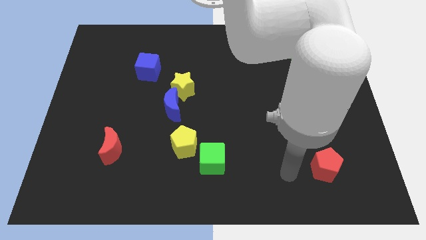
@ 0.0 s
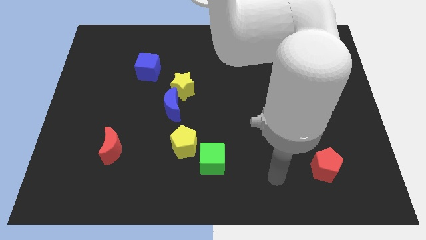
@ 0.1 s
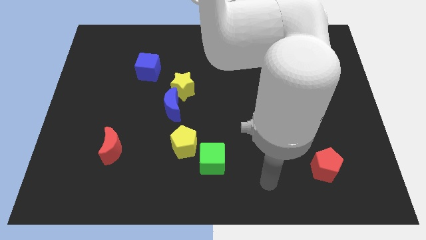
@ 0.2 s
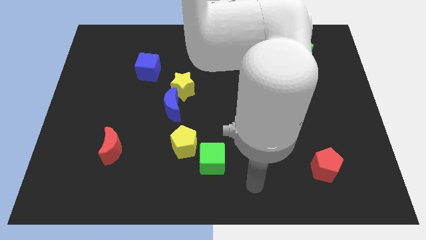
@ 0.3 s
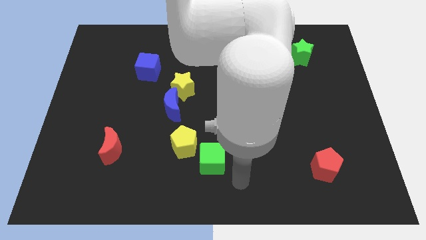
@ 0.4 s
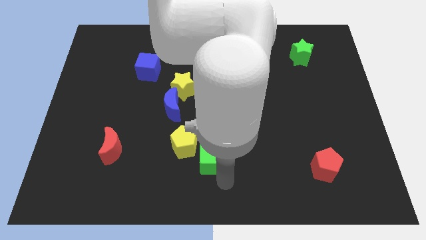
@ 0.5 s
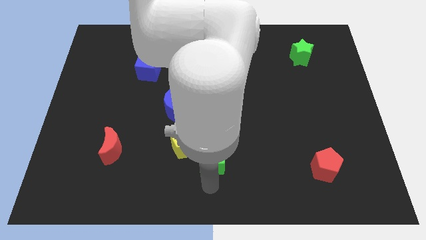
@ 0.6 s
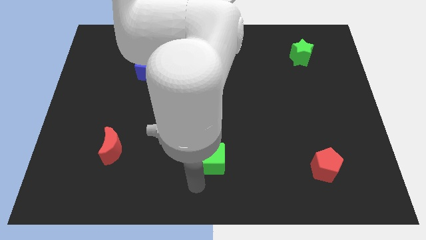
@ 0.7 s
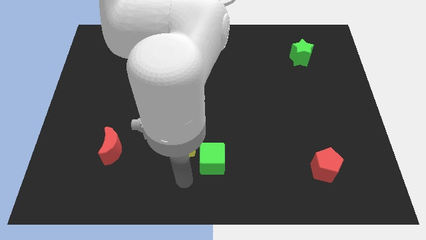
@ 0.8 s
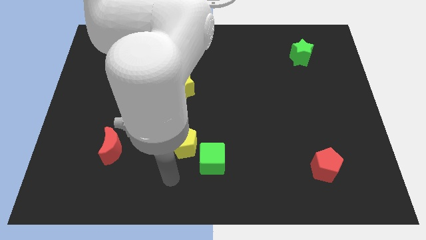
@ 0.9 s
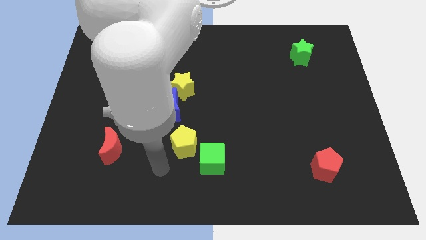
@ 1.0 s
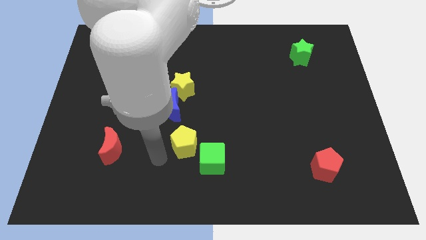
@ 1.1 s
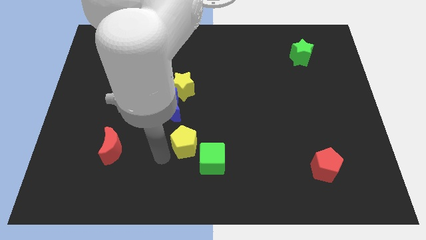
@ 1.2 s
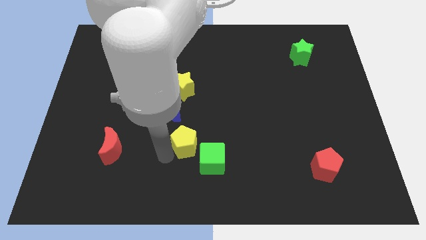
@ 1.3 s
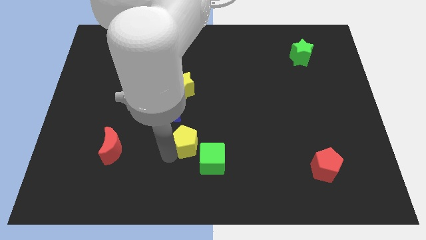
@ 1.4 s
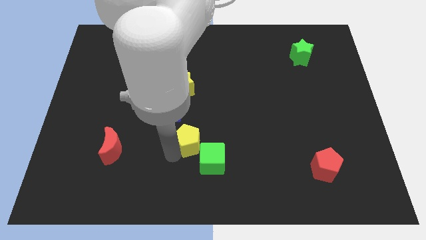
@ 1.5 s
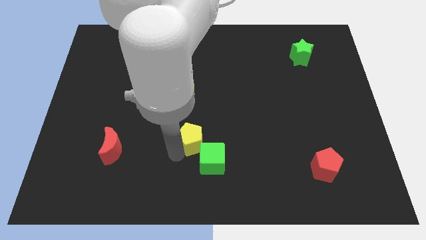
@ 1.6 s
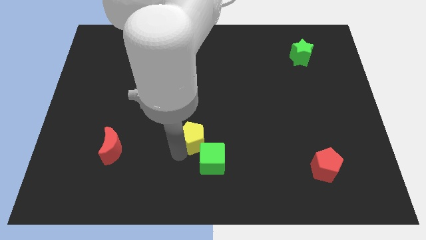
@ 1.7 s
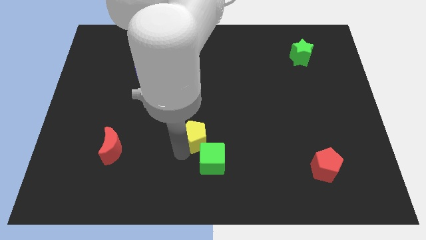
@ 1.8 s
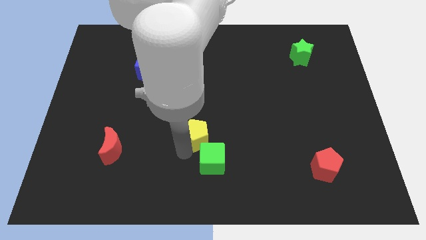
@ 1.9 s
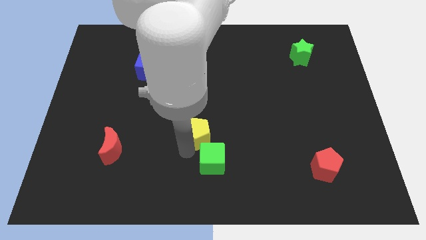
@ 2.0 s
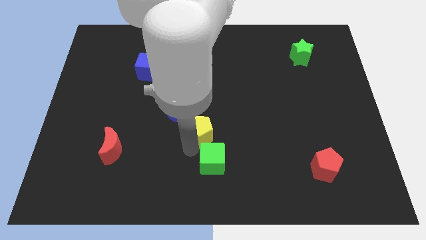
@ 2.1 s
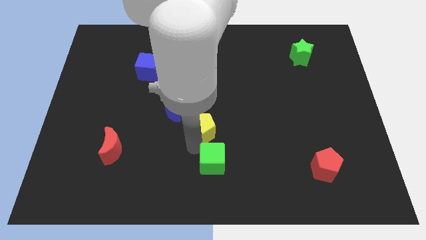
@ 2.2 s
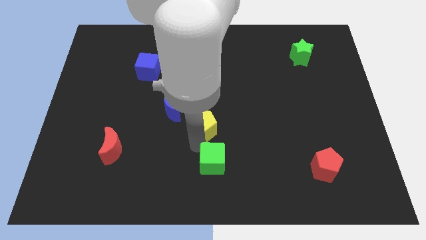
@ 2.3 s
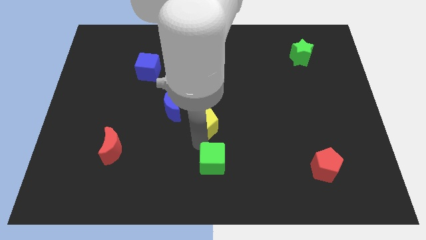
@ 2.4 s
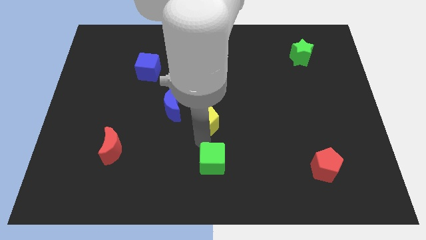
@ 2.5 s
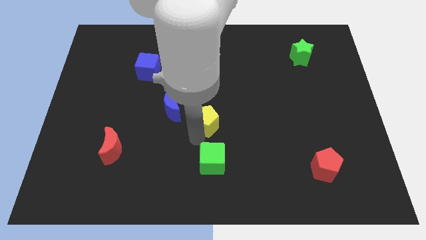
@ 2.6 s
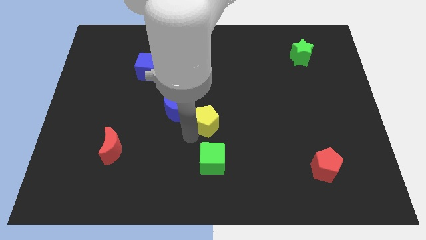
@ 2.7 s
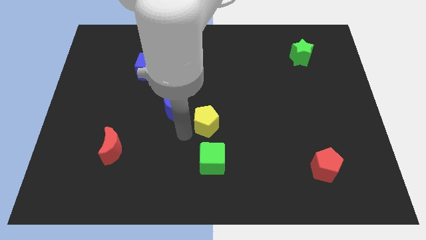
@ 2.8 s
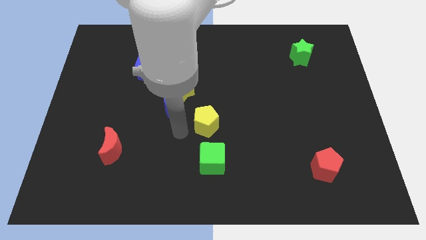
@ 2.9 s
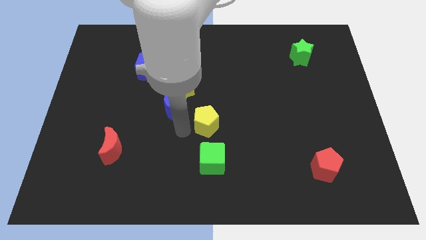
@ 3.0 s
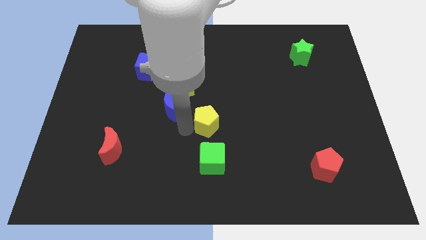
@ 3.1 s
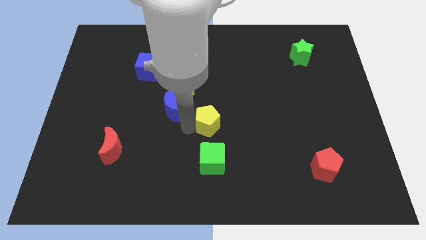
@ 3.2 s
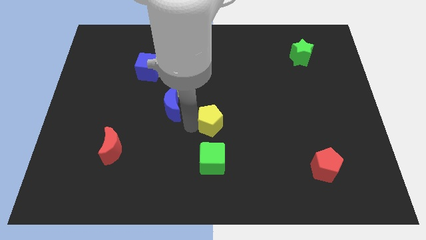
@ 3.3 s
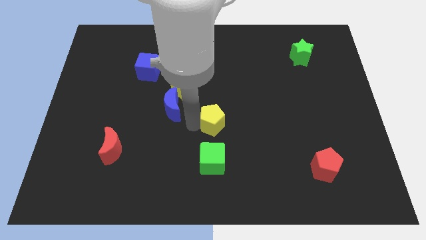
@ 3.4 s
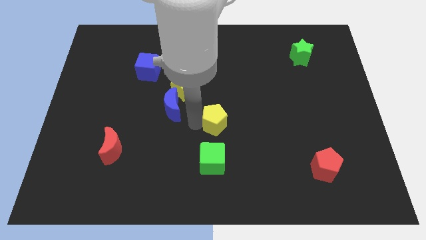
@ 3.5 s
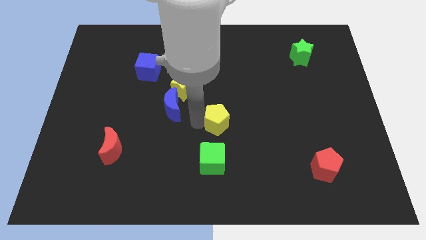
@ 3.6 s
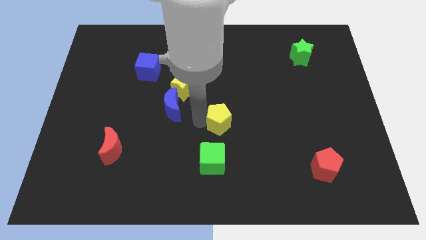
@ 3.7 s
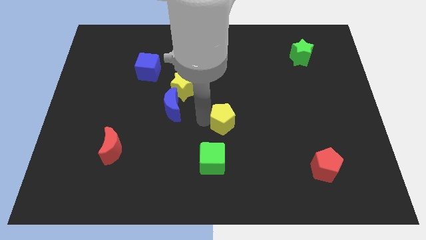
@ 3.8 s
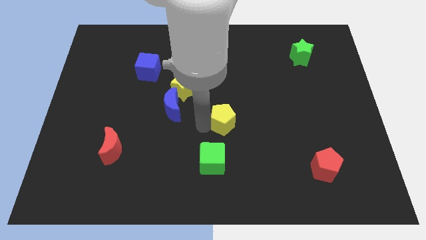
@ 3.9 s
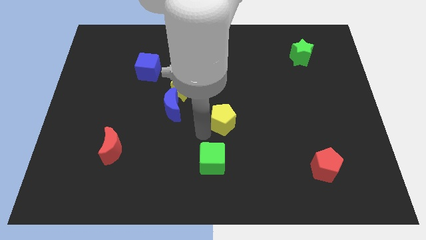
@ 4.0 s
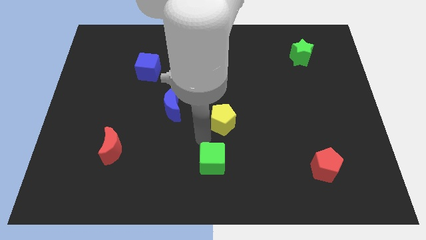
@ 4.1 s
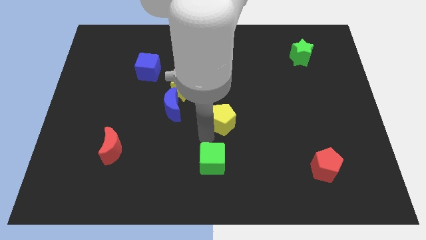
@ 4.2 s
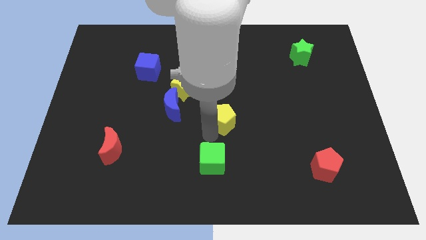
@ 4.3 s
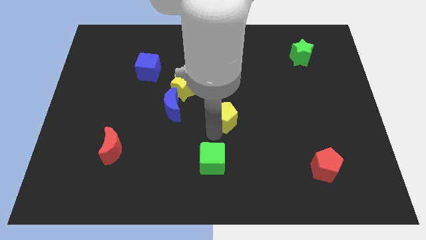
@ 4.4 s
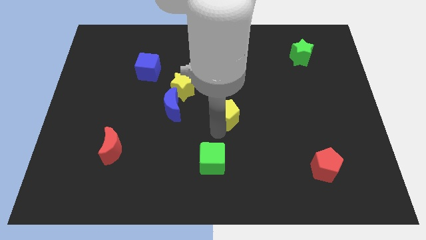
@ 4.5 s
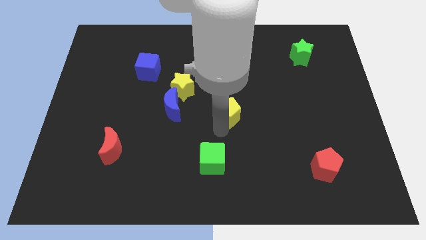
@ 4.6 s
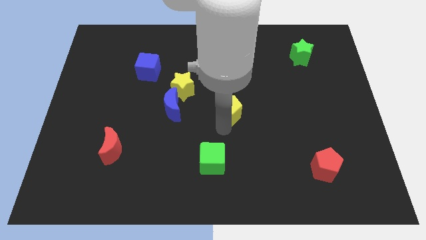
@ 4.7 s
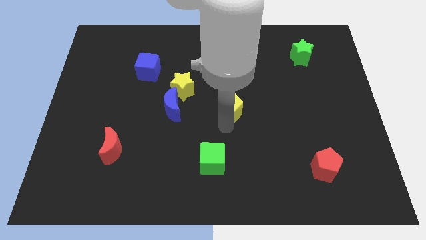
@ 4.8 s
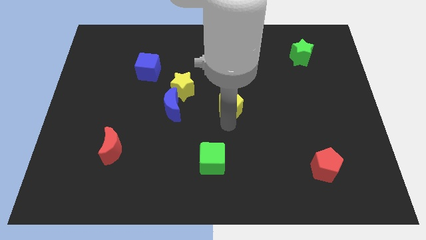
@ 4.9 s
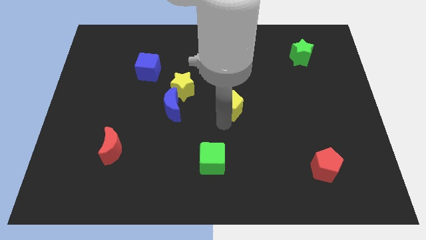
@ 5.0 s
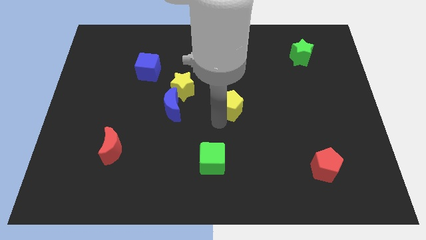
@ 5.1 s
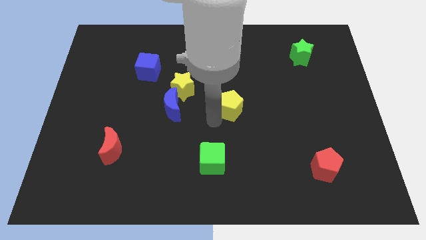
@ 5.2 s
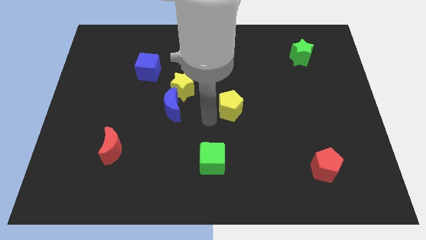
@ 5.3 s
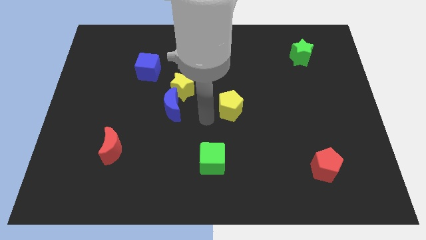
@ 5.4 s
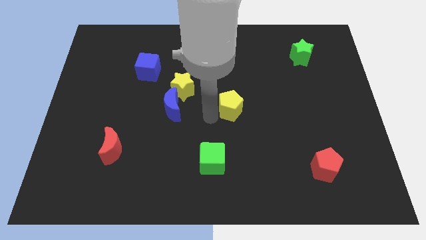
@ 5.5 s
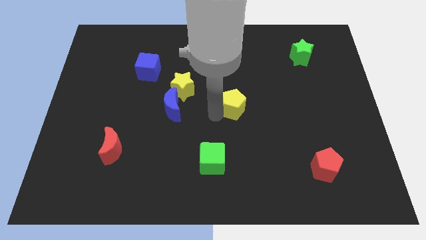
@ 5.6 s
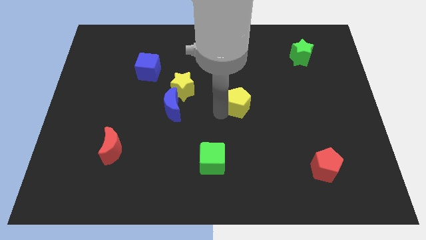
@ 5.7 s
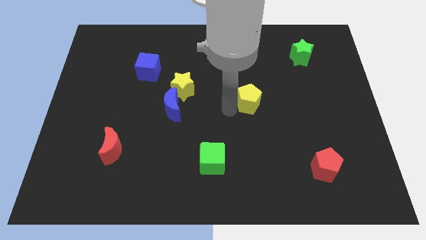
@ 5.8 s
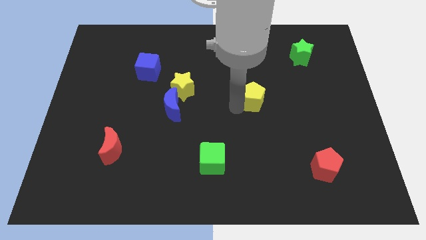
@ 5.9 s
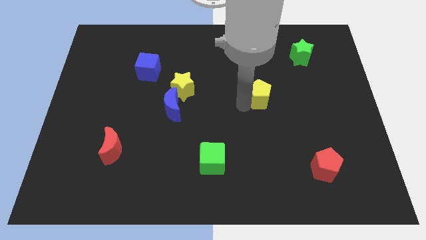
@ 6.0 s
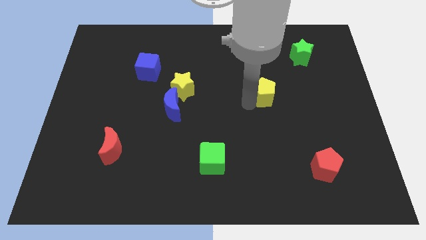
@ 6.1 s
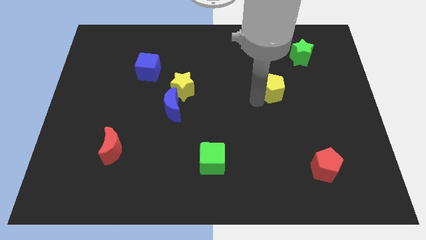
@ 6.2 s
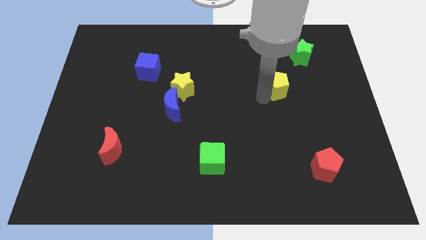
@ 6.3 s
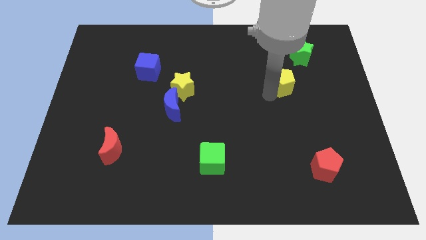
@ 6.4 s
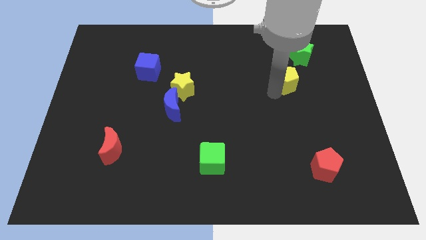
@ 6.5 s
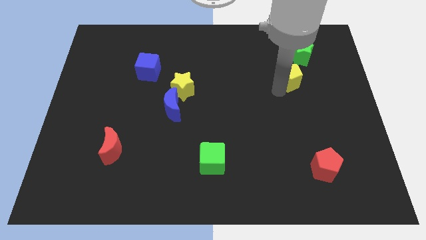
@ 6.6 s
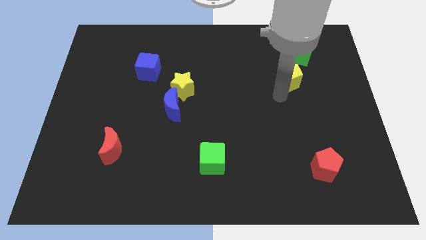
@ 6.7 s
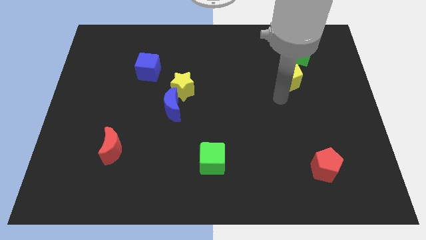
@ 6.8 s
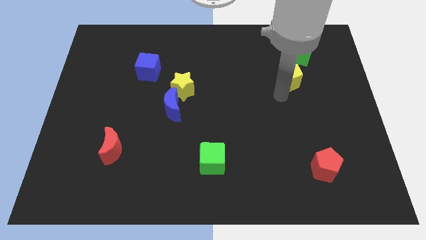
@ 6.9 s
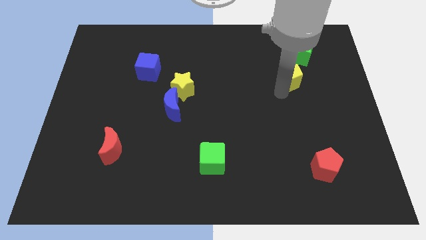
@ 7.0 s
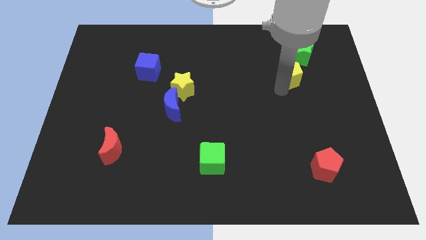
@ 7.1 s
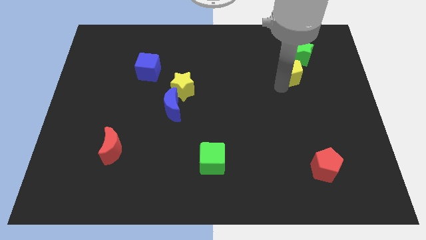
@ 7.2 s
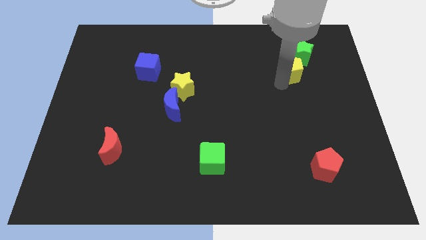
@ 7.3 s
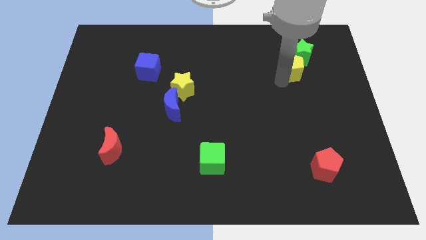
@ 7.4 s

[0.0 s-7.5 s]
push the yellow pentagon to the green star

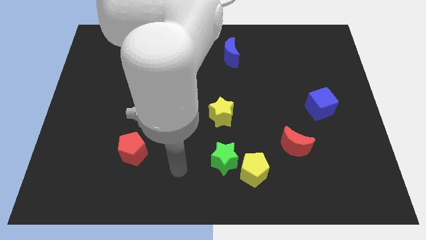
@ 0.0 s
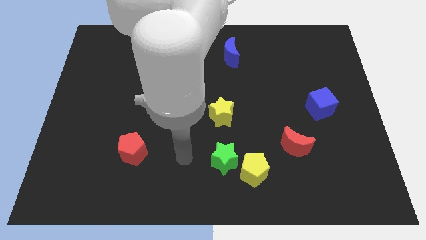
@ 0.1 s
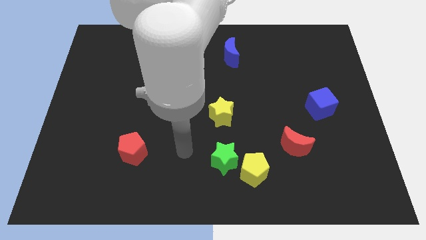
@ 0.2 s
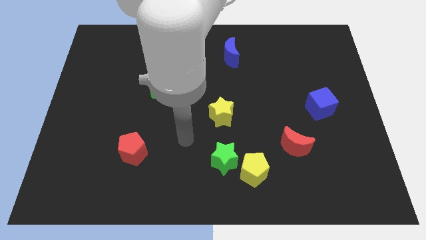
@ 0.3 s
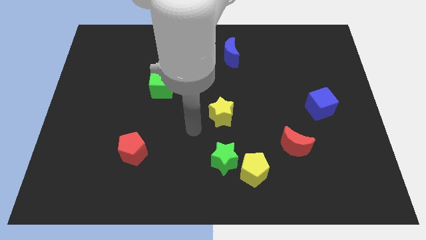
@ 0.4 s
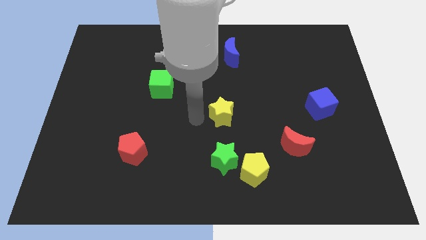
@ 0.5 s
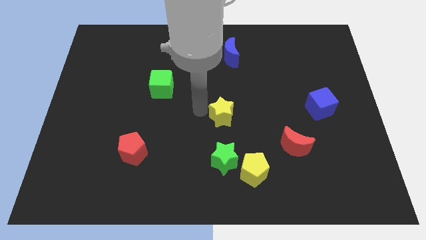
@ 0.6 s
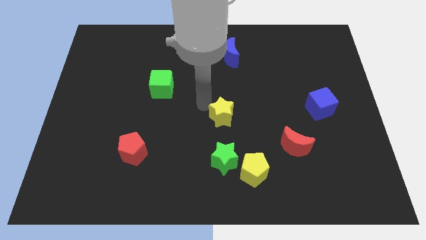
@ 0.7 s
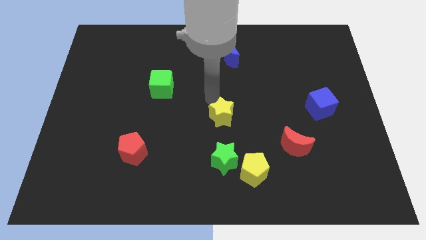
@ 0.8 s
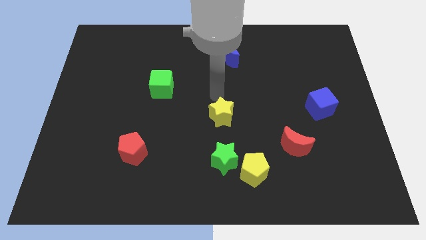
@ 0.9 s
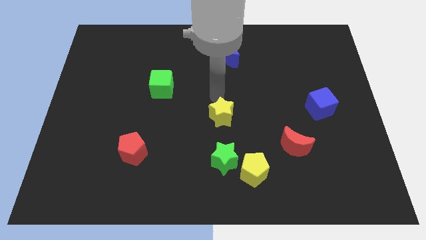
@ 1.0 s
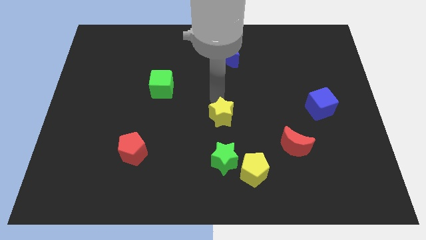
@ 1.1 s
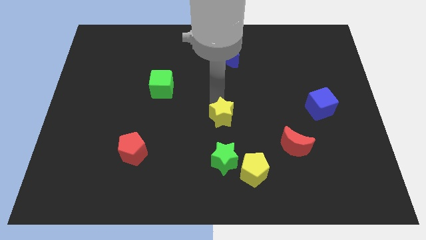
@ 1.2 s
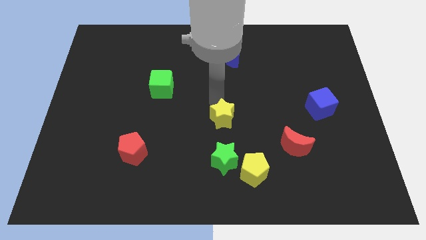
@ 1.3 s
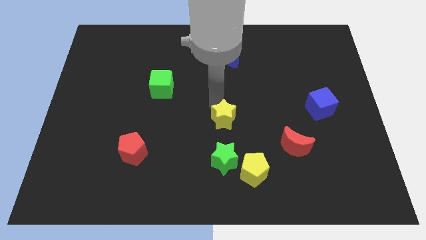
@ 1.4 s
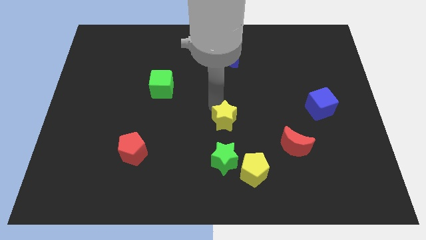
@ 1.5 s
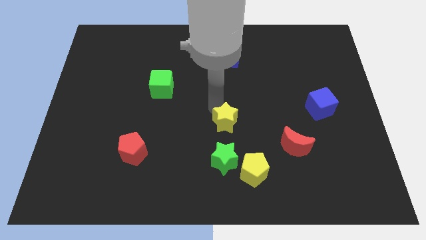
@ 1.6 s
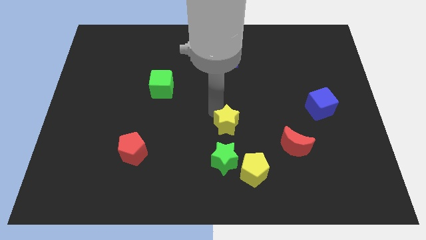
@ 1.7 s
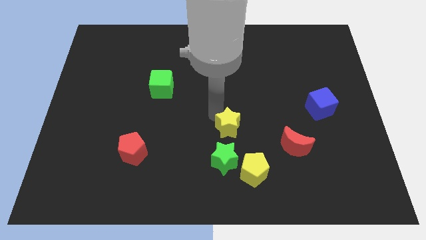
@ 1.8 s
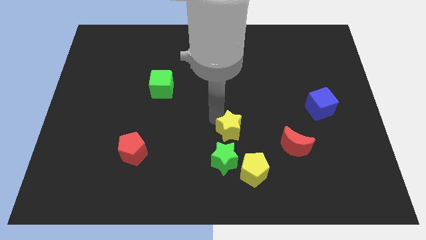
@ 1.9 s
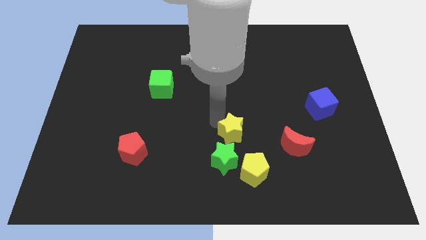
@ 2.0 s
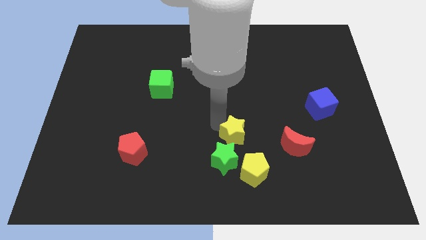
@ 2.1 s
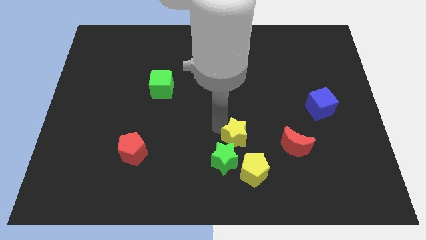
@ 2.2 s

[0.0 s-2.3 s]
slide the yellow star to the green star
